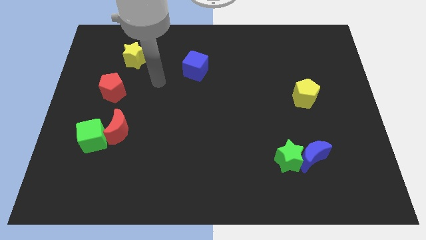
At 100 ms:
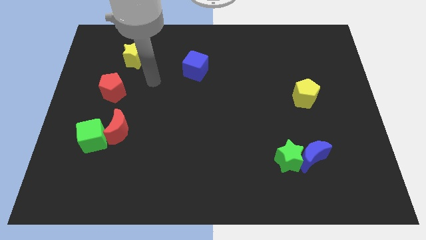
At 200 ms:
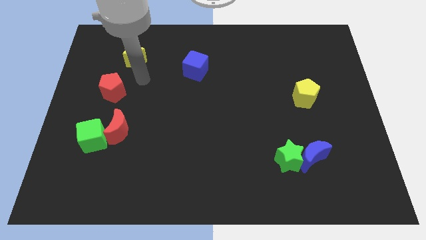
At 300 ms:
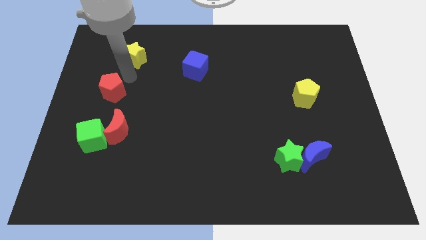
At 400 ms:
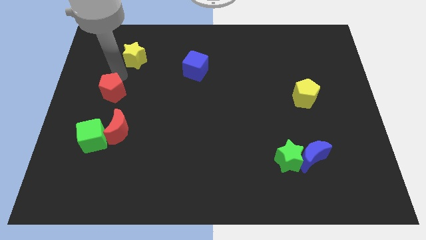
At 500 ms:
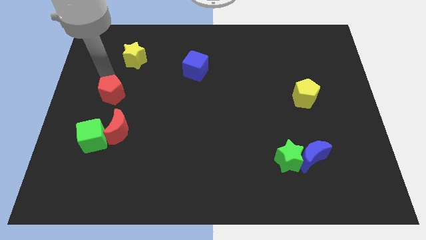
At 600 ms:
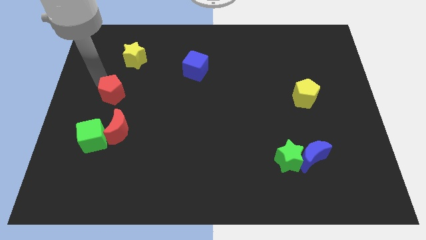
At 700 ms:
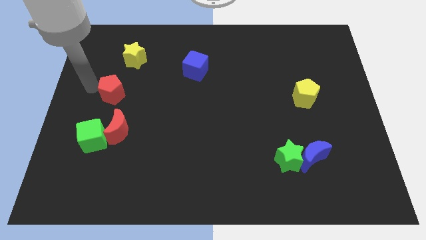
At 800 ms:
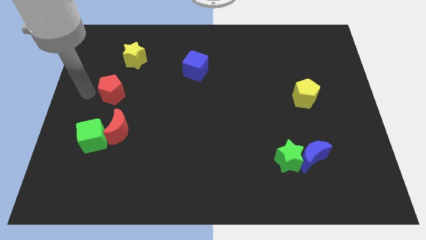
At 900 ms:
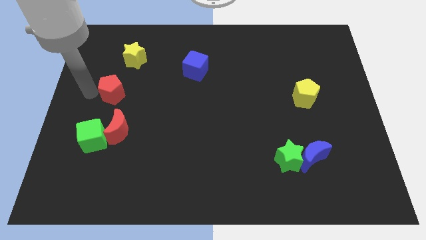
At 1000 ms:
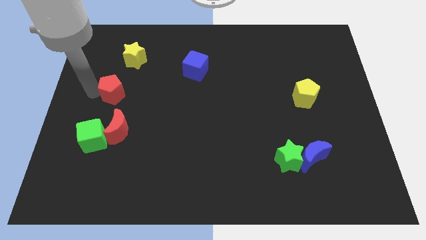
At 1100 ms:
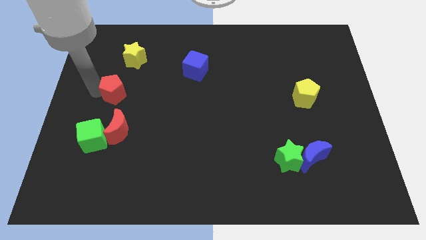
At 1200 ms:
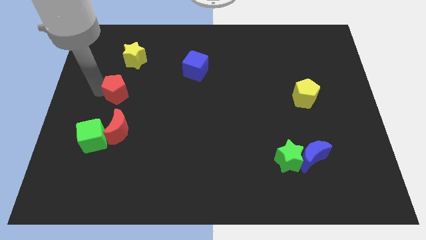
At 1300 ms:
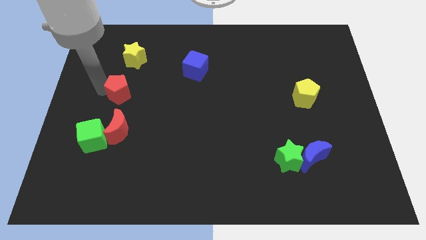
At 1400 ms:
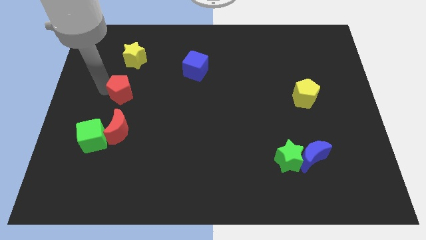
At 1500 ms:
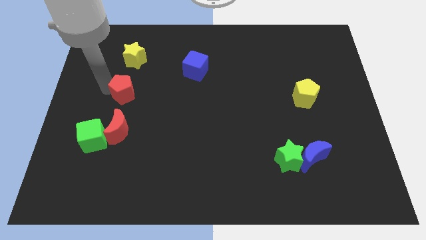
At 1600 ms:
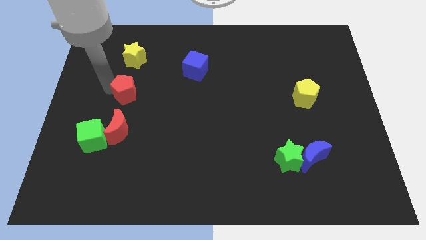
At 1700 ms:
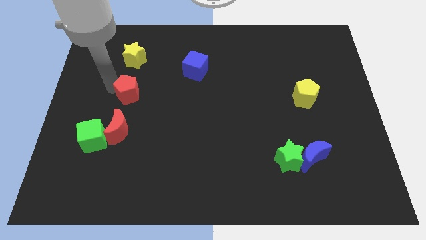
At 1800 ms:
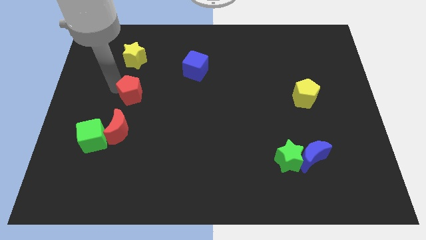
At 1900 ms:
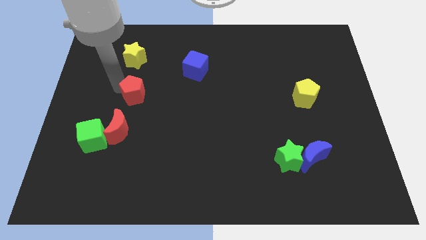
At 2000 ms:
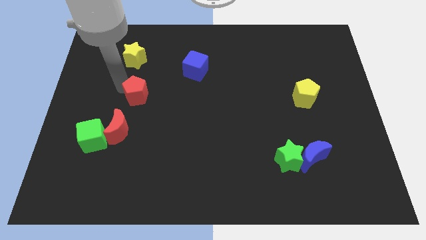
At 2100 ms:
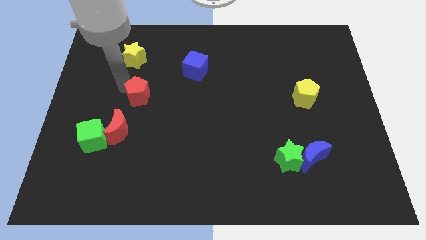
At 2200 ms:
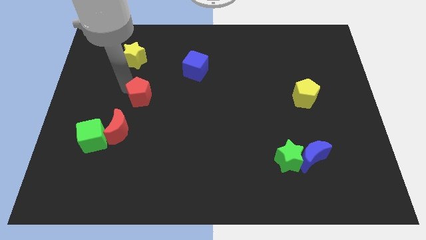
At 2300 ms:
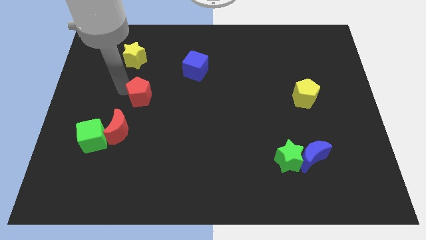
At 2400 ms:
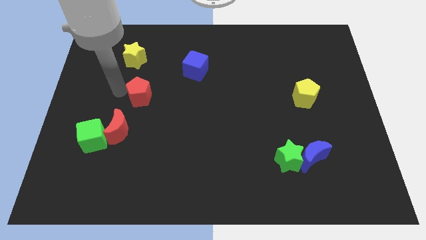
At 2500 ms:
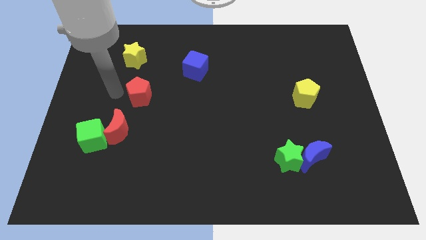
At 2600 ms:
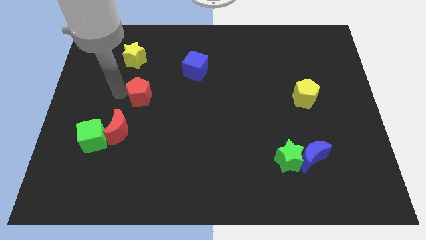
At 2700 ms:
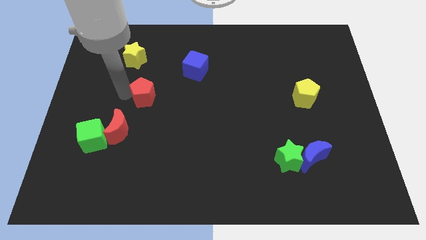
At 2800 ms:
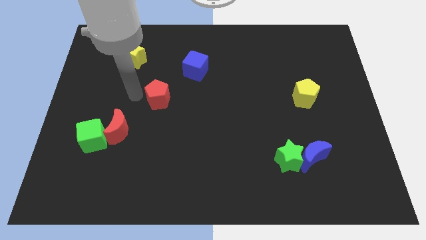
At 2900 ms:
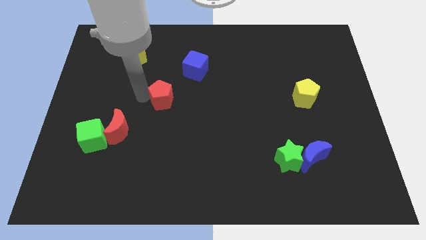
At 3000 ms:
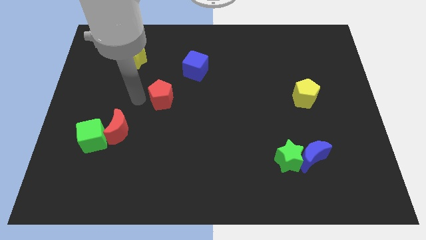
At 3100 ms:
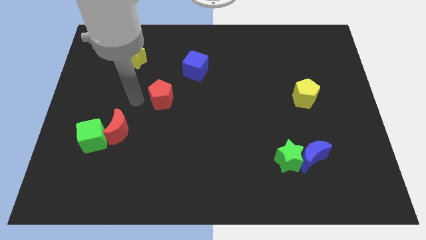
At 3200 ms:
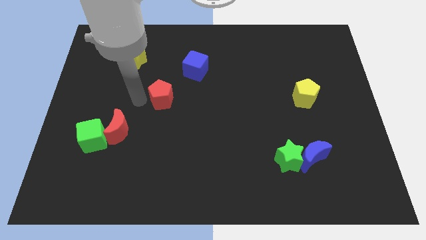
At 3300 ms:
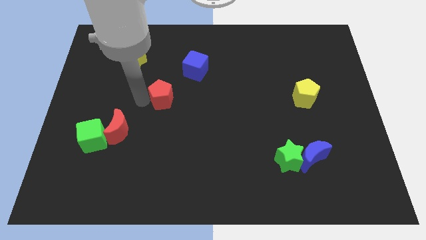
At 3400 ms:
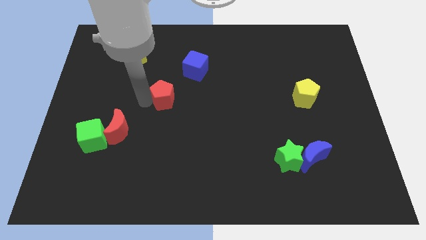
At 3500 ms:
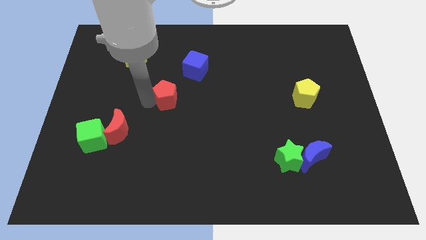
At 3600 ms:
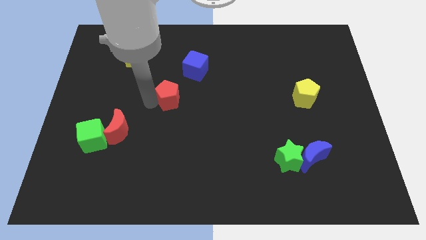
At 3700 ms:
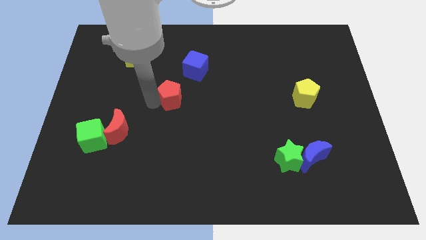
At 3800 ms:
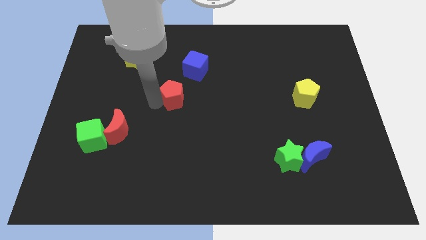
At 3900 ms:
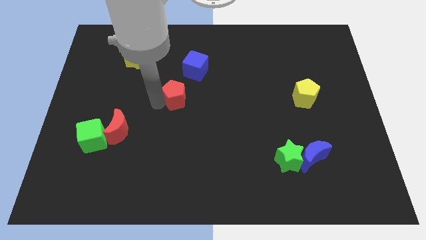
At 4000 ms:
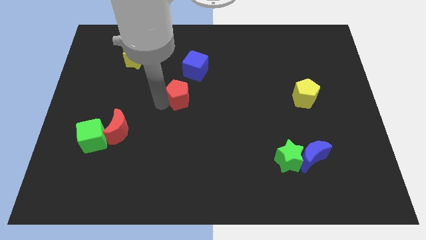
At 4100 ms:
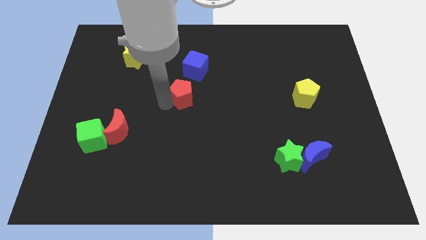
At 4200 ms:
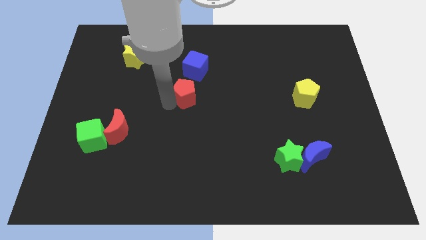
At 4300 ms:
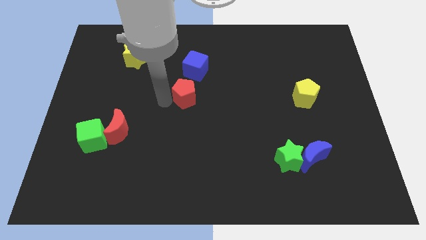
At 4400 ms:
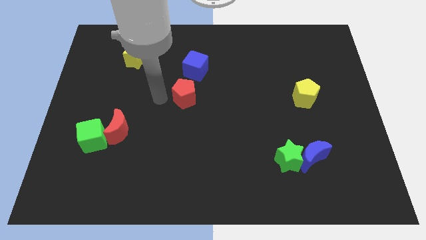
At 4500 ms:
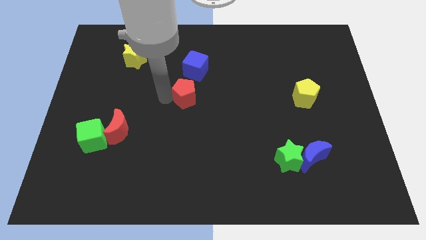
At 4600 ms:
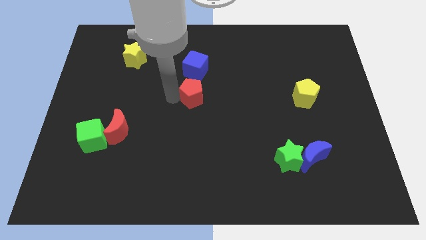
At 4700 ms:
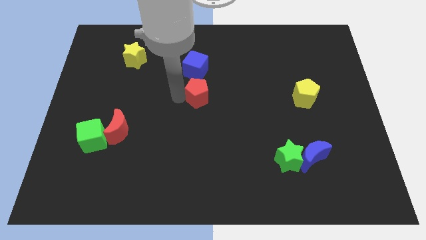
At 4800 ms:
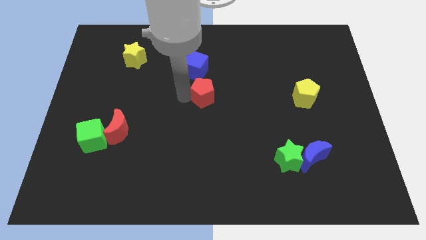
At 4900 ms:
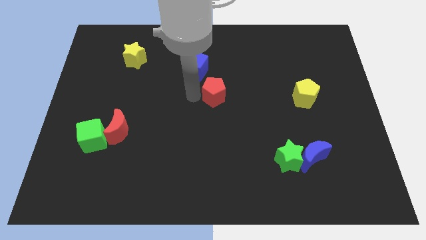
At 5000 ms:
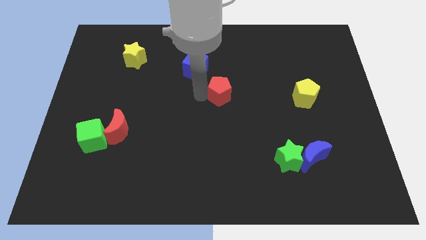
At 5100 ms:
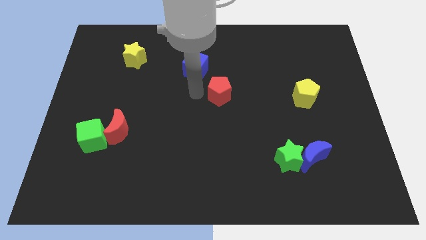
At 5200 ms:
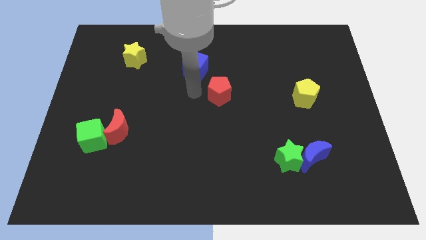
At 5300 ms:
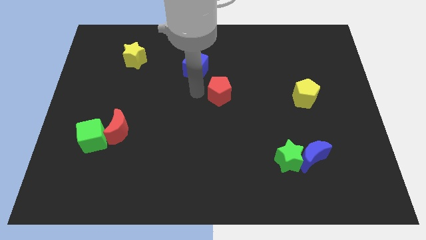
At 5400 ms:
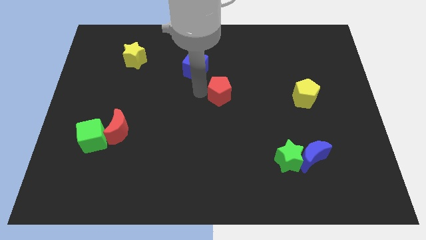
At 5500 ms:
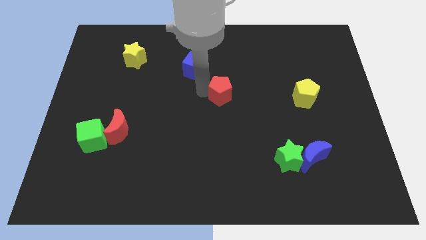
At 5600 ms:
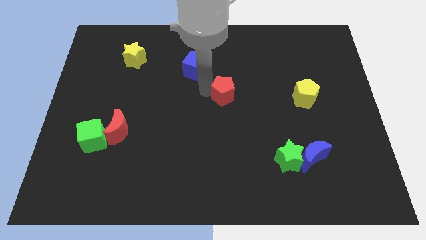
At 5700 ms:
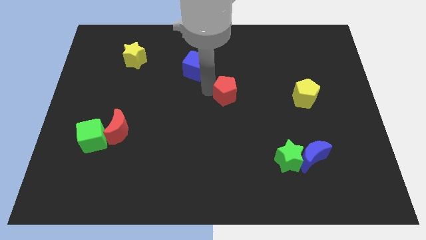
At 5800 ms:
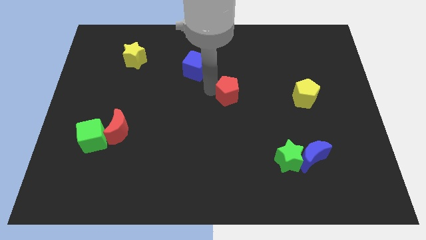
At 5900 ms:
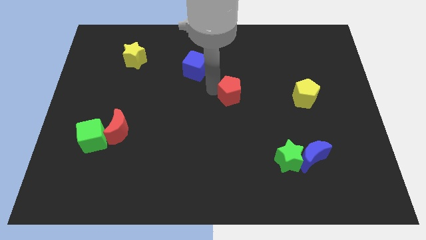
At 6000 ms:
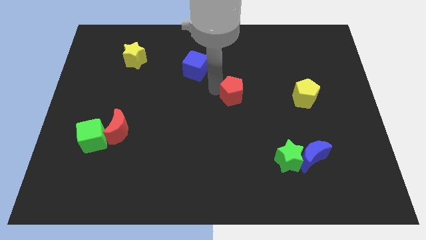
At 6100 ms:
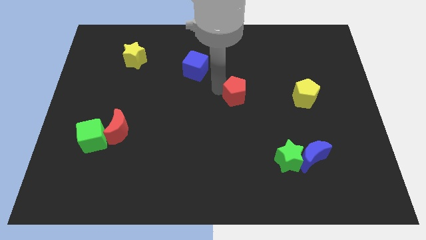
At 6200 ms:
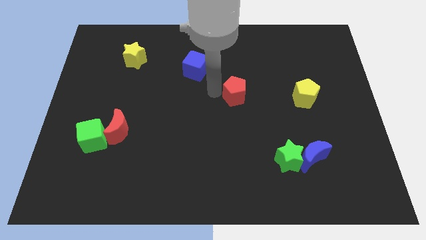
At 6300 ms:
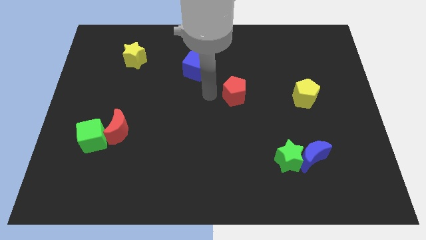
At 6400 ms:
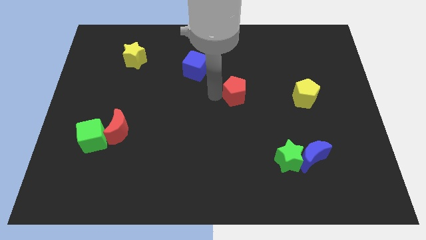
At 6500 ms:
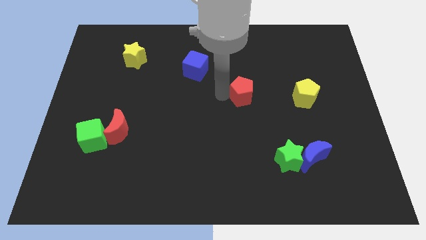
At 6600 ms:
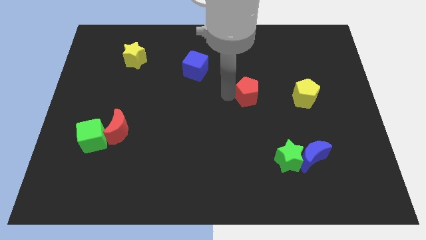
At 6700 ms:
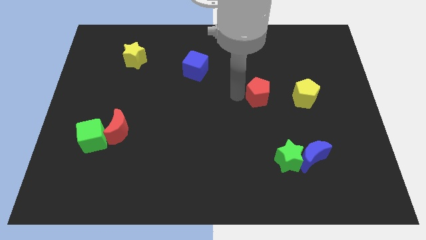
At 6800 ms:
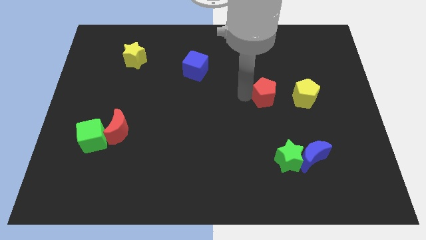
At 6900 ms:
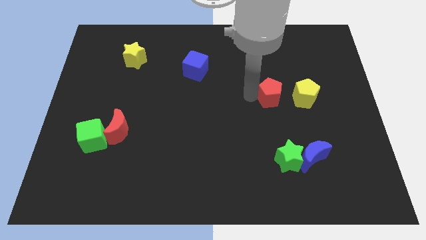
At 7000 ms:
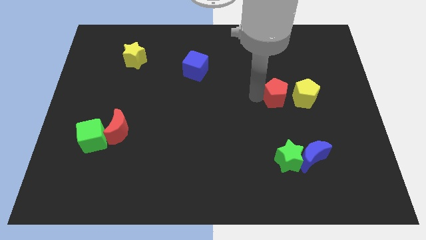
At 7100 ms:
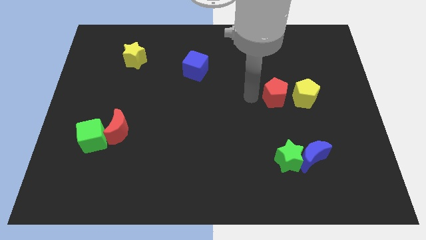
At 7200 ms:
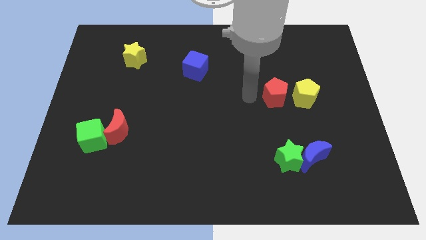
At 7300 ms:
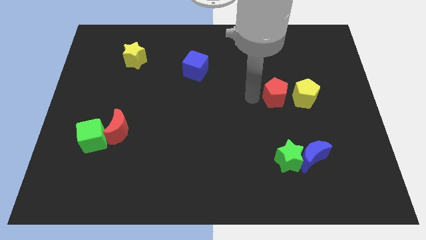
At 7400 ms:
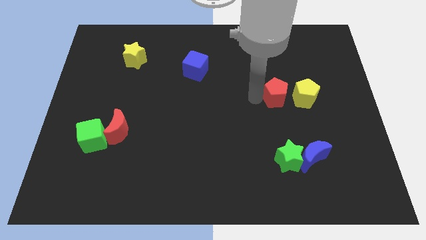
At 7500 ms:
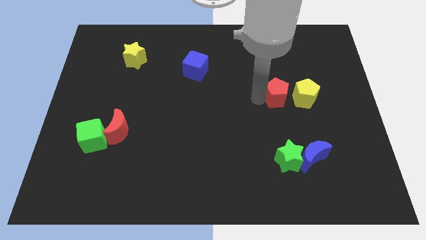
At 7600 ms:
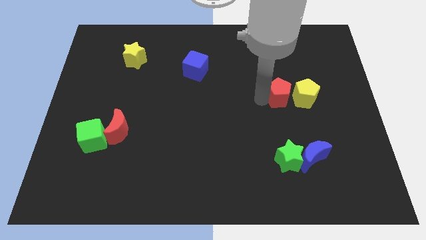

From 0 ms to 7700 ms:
move the red pentagon close to the yellow pentagon

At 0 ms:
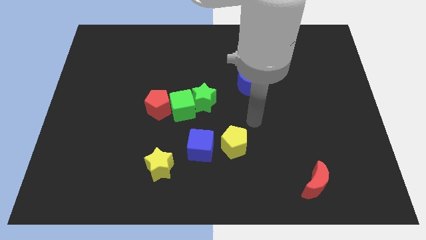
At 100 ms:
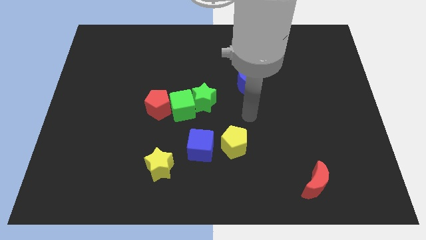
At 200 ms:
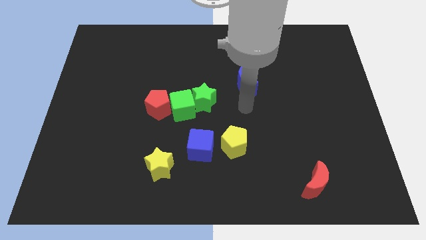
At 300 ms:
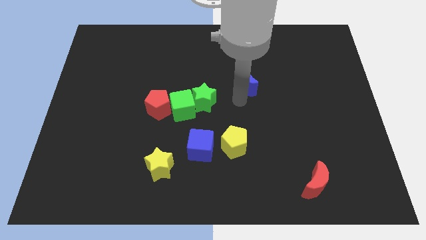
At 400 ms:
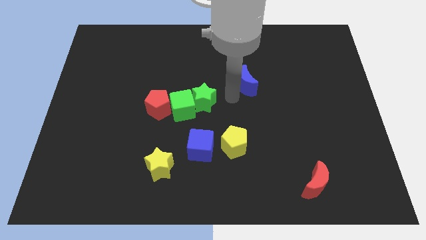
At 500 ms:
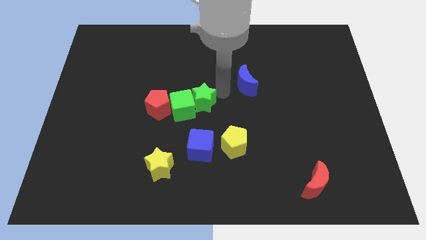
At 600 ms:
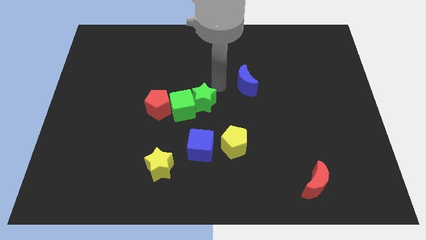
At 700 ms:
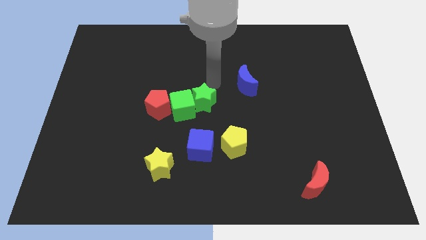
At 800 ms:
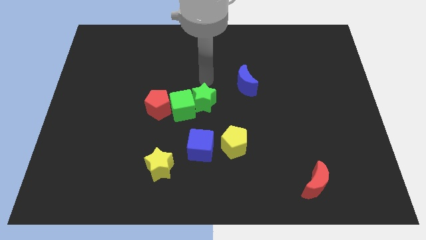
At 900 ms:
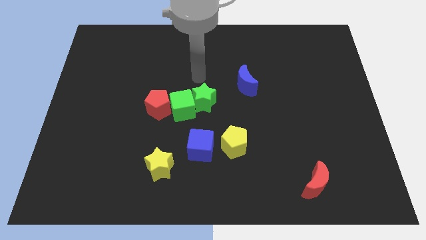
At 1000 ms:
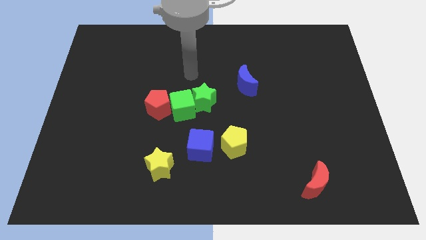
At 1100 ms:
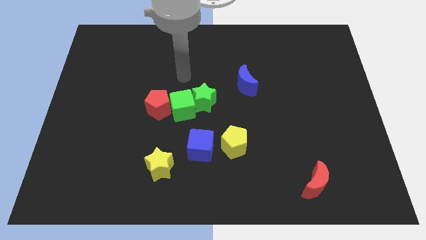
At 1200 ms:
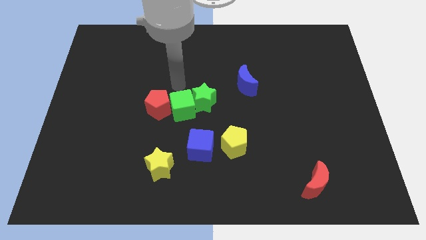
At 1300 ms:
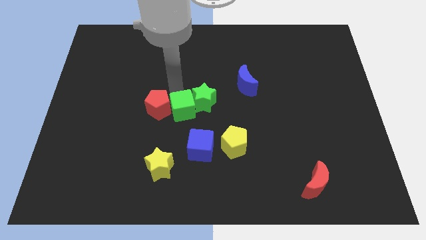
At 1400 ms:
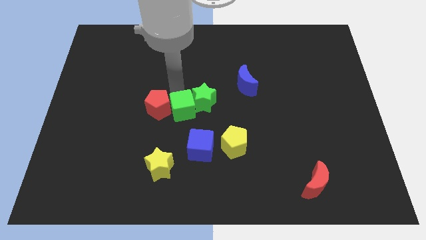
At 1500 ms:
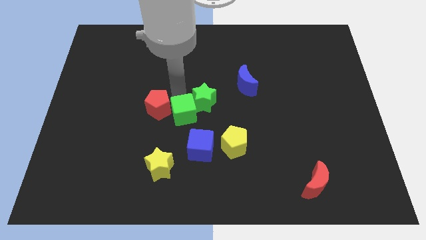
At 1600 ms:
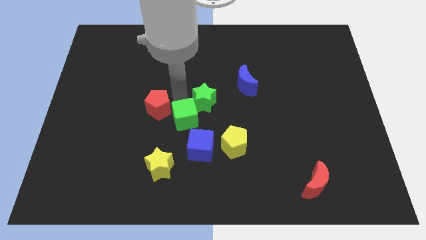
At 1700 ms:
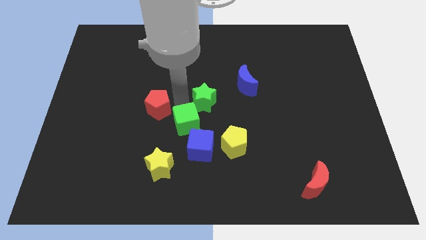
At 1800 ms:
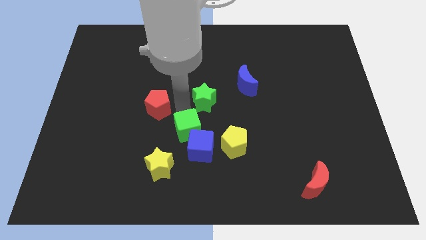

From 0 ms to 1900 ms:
move the green cube next to the blue cube
